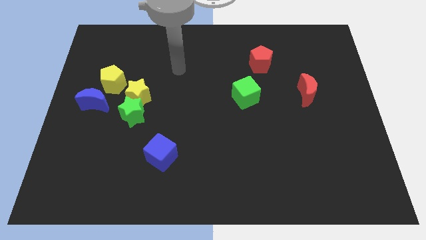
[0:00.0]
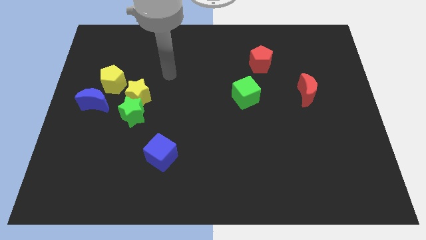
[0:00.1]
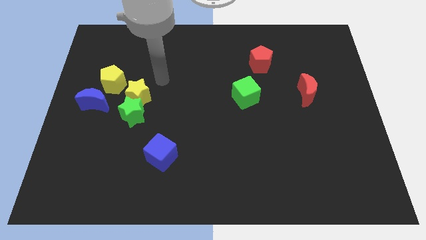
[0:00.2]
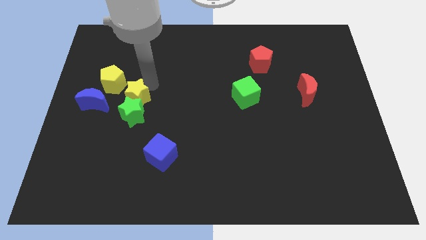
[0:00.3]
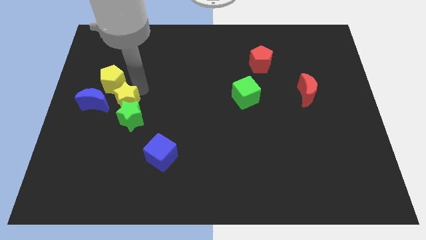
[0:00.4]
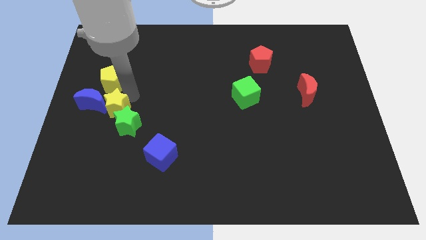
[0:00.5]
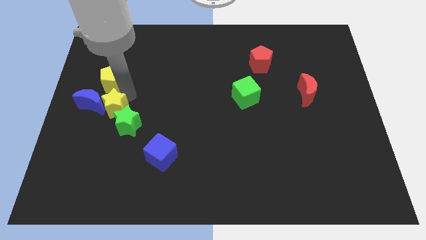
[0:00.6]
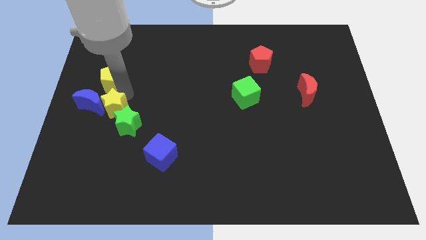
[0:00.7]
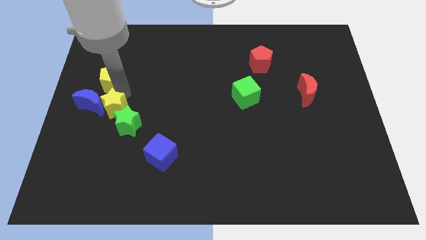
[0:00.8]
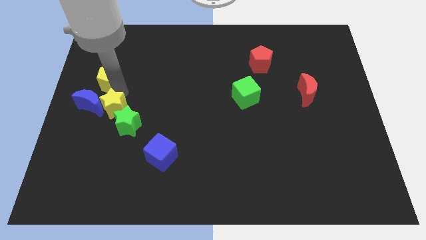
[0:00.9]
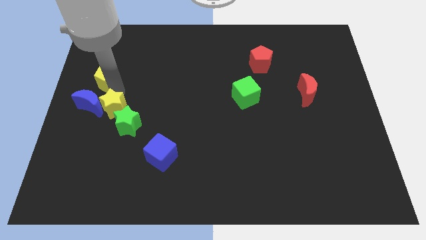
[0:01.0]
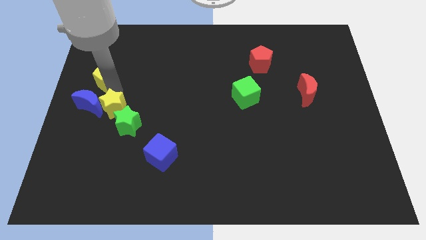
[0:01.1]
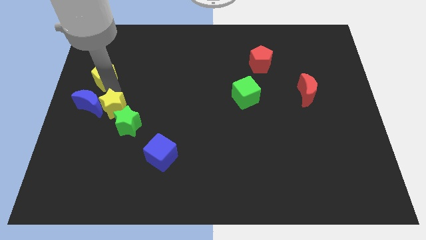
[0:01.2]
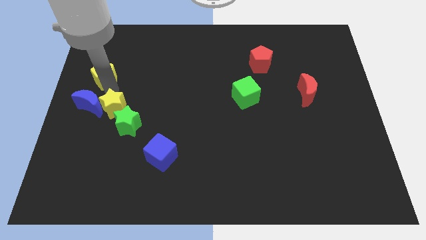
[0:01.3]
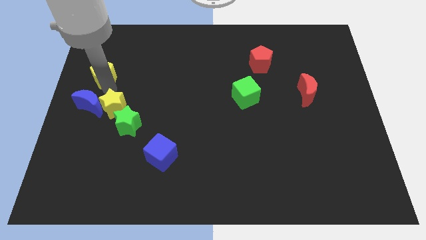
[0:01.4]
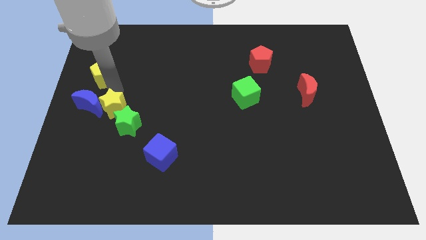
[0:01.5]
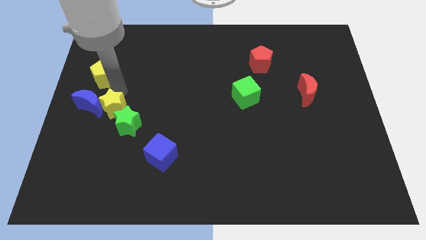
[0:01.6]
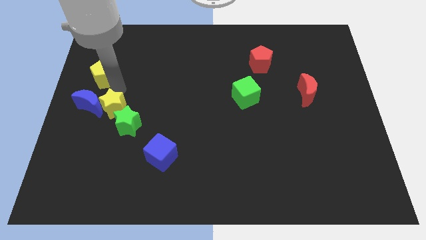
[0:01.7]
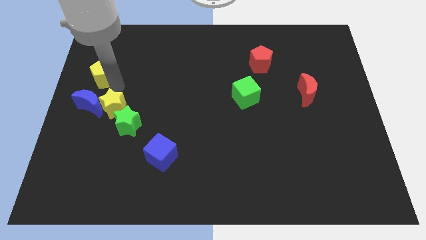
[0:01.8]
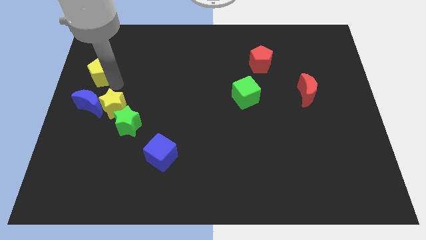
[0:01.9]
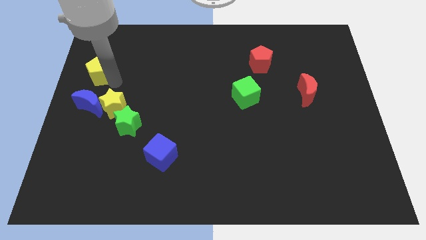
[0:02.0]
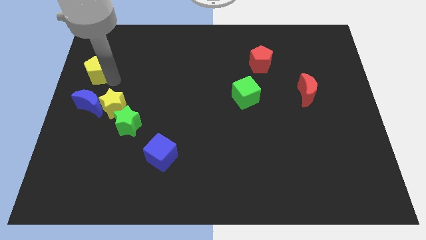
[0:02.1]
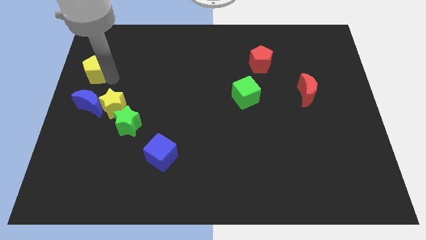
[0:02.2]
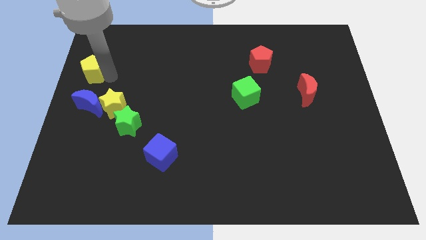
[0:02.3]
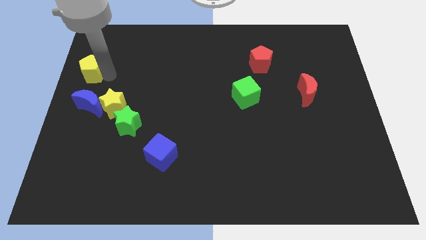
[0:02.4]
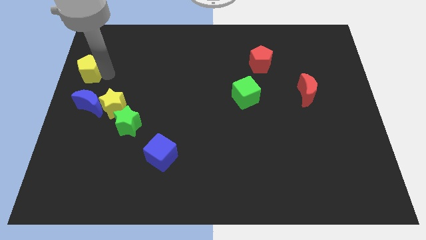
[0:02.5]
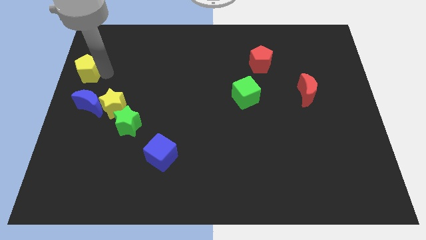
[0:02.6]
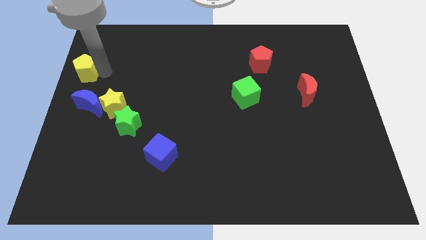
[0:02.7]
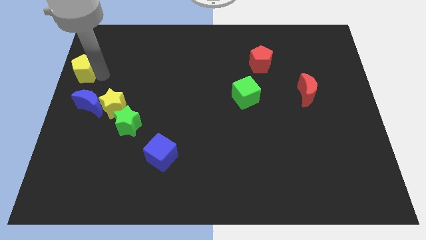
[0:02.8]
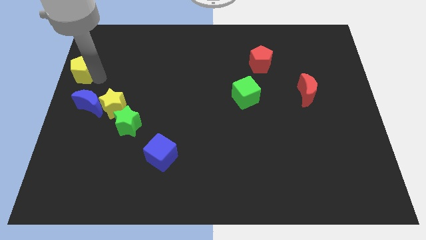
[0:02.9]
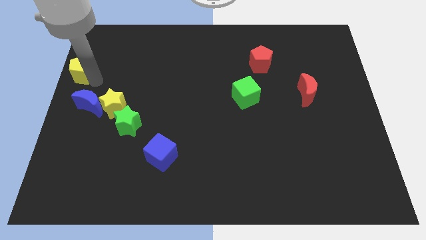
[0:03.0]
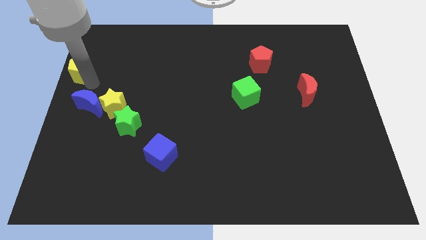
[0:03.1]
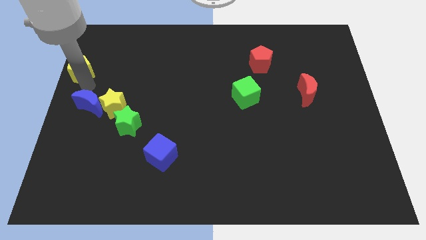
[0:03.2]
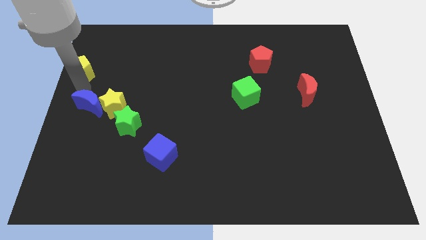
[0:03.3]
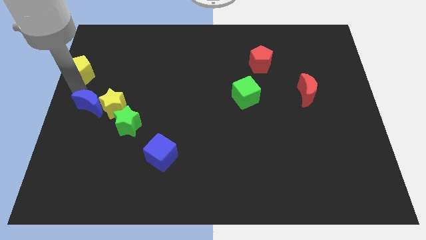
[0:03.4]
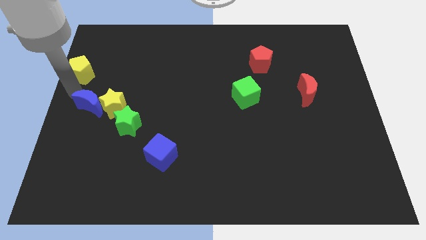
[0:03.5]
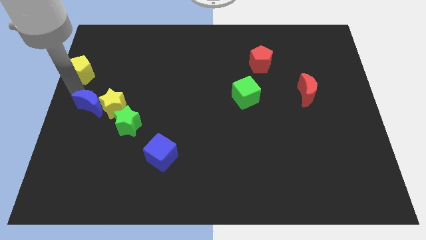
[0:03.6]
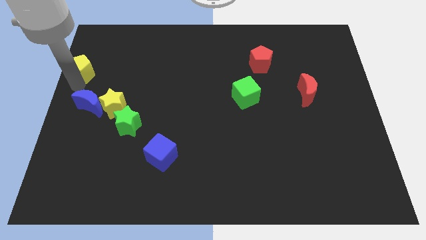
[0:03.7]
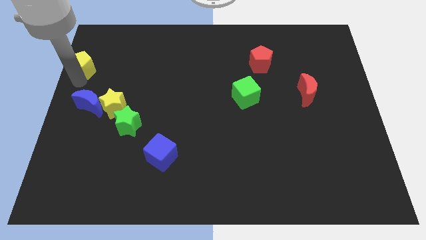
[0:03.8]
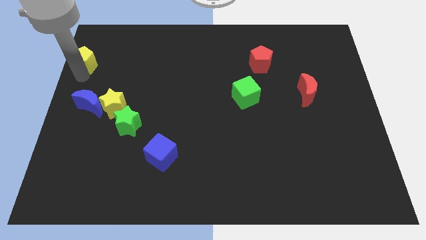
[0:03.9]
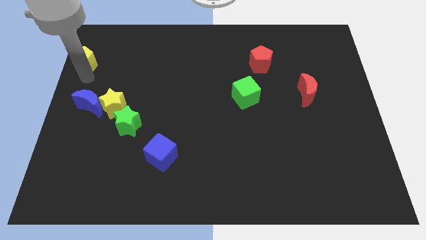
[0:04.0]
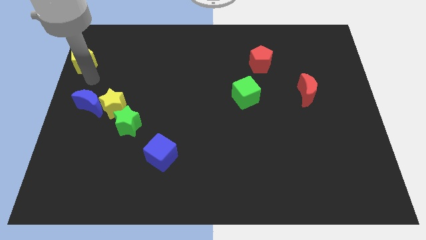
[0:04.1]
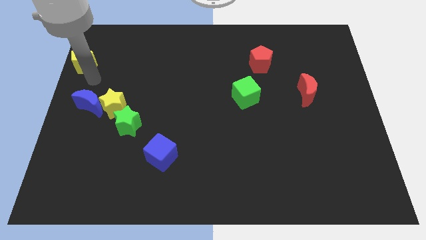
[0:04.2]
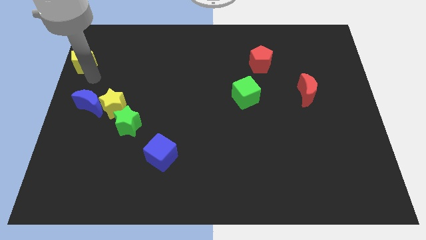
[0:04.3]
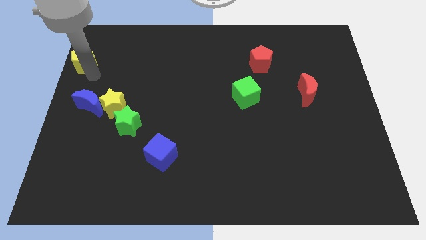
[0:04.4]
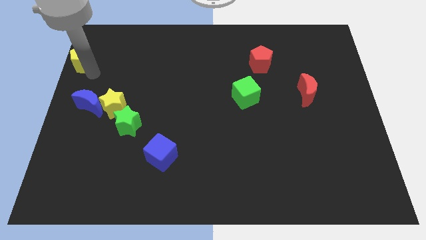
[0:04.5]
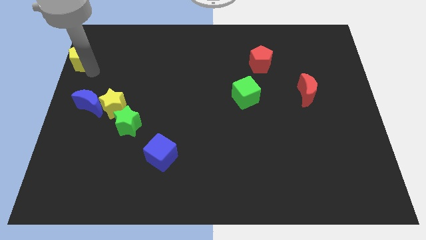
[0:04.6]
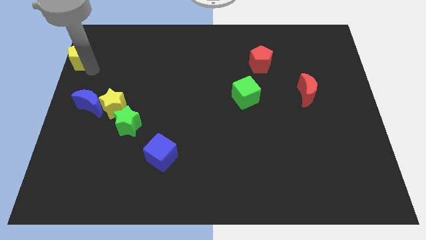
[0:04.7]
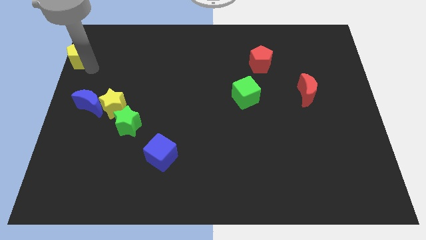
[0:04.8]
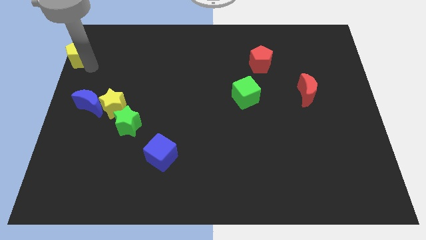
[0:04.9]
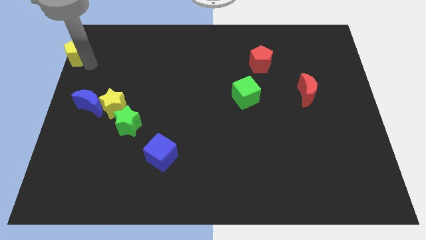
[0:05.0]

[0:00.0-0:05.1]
slide the yellow pentagon to the top left
